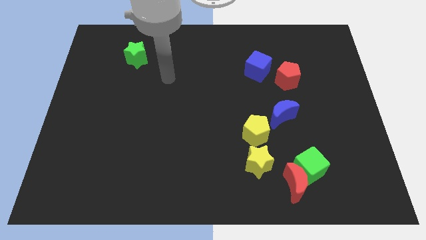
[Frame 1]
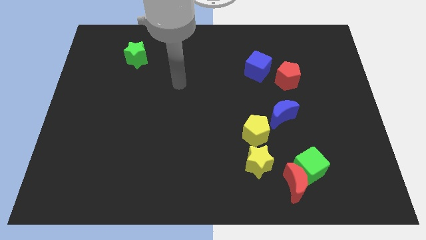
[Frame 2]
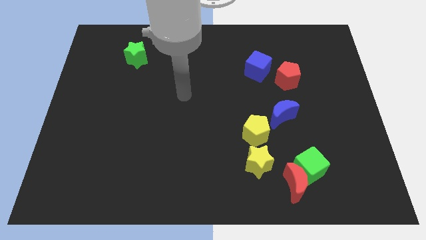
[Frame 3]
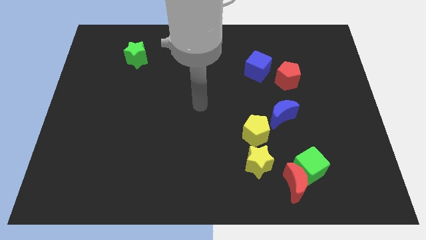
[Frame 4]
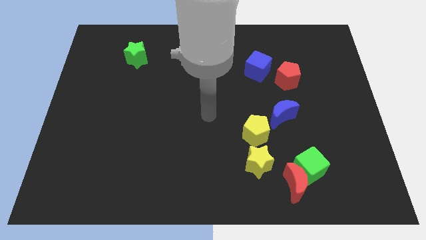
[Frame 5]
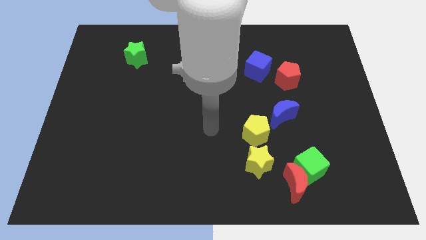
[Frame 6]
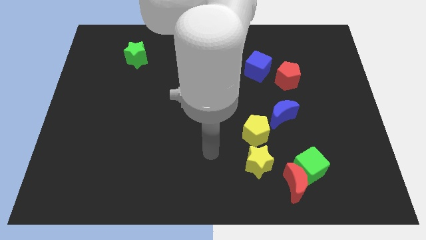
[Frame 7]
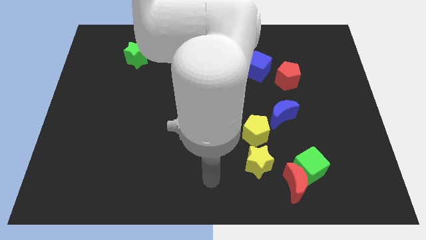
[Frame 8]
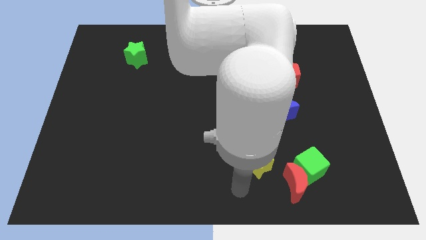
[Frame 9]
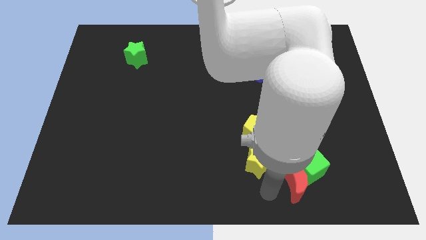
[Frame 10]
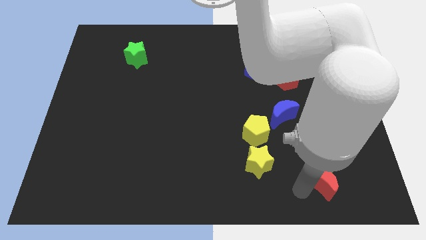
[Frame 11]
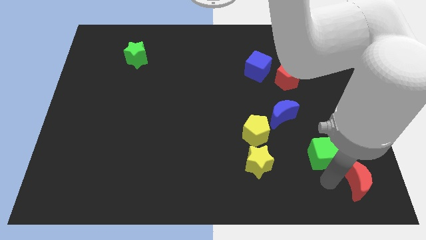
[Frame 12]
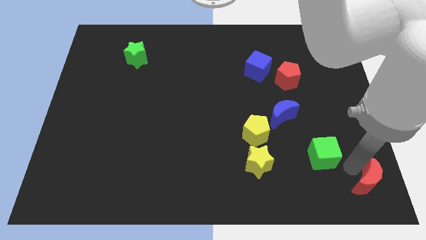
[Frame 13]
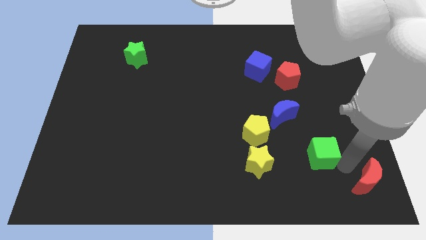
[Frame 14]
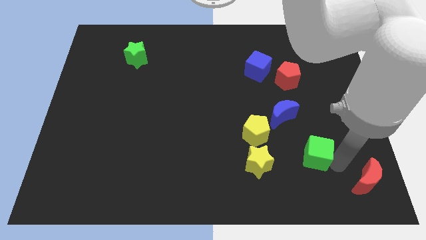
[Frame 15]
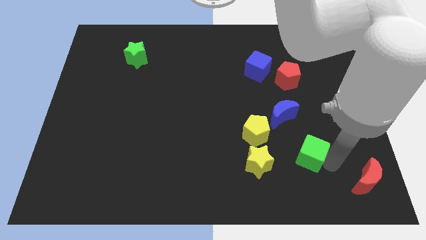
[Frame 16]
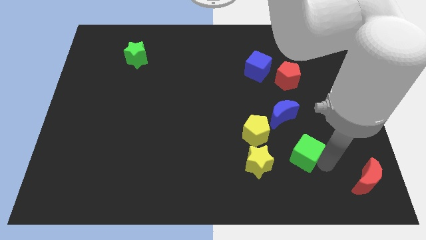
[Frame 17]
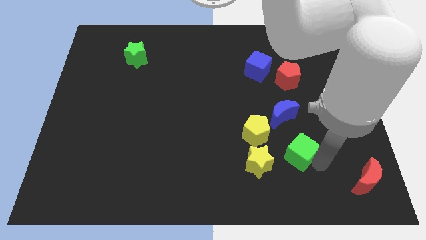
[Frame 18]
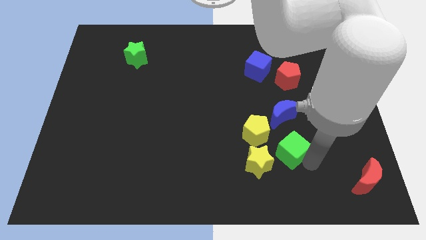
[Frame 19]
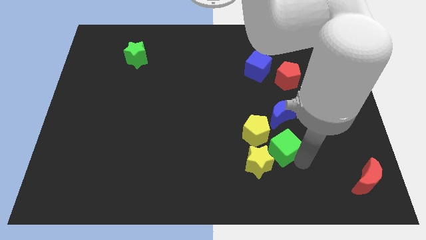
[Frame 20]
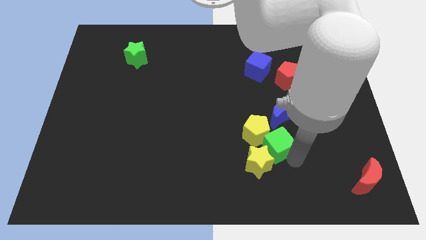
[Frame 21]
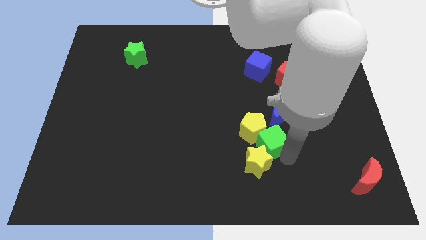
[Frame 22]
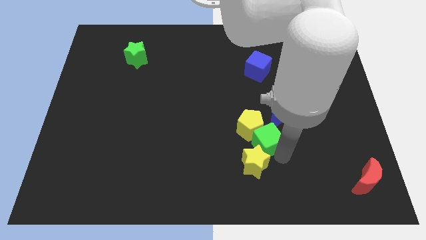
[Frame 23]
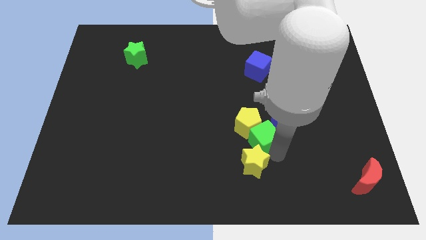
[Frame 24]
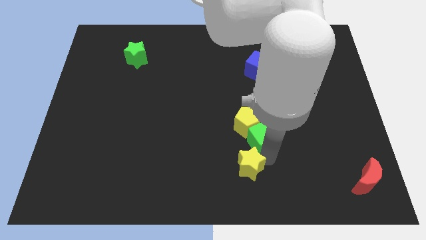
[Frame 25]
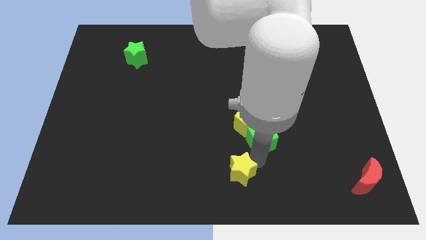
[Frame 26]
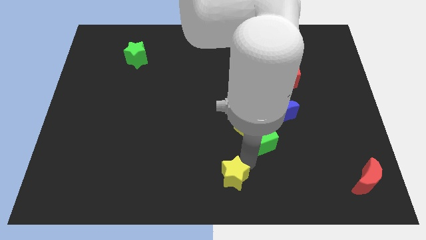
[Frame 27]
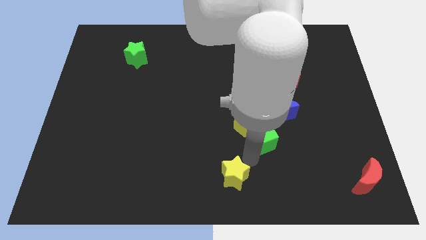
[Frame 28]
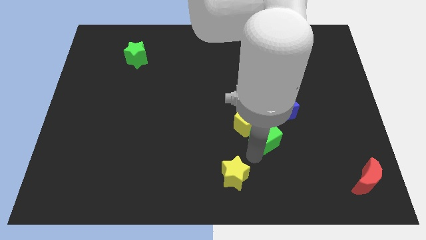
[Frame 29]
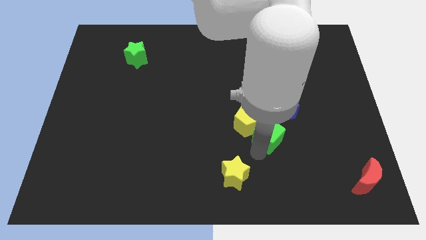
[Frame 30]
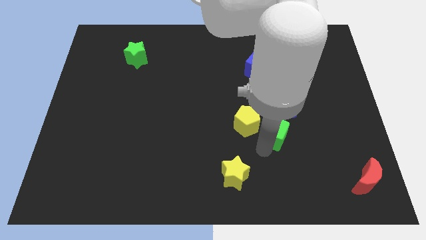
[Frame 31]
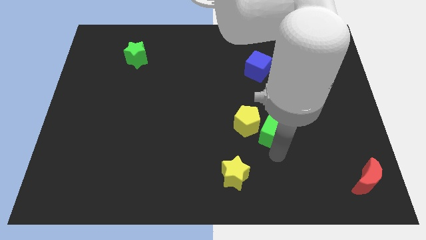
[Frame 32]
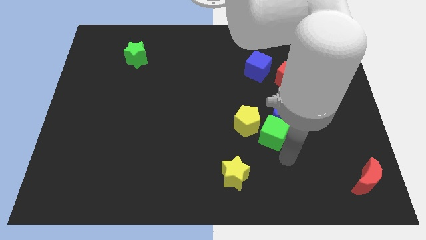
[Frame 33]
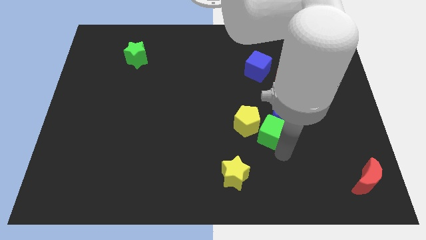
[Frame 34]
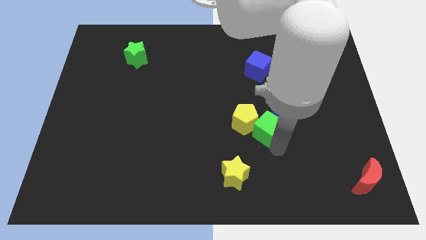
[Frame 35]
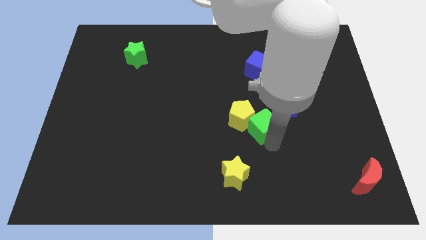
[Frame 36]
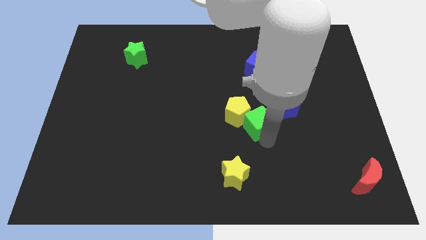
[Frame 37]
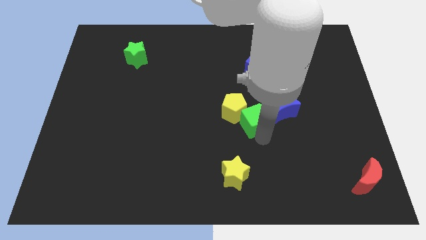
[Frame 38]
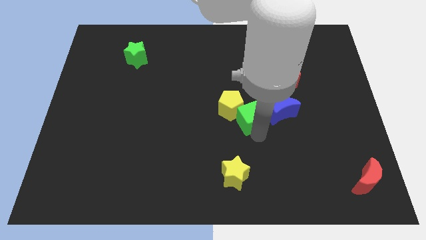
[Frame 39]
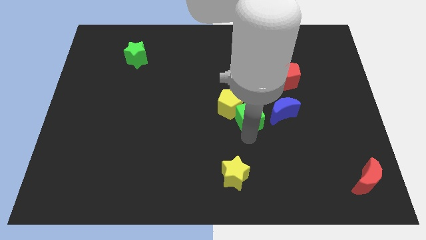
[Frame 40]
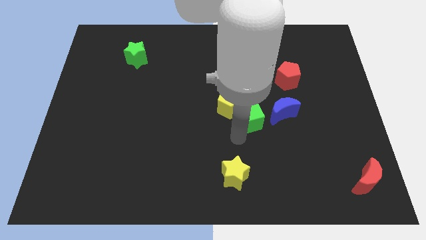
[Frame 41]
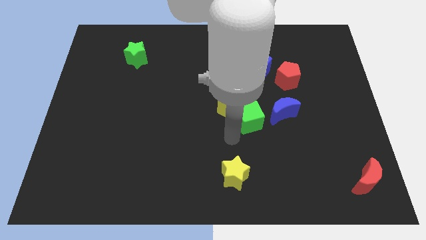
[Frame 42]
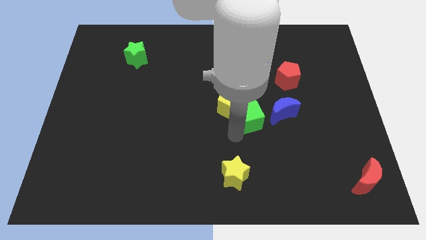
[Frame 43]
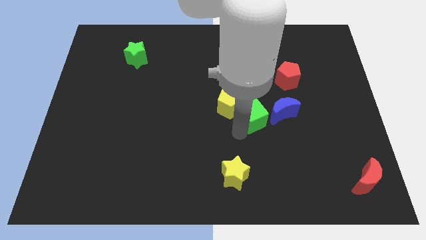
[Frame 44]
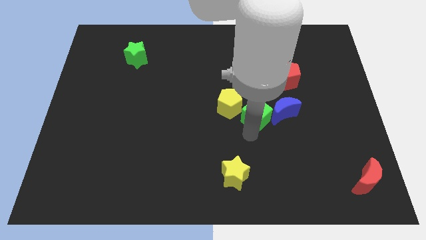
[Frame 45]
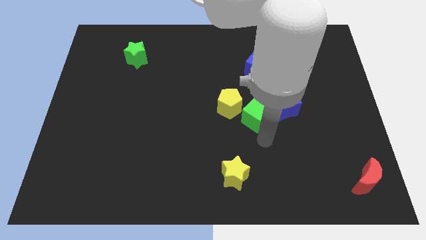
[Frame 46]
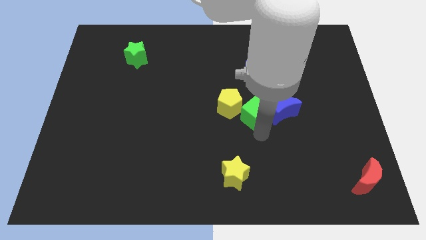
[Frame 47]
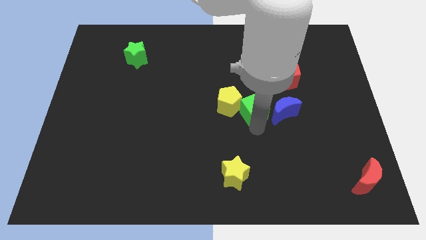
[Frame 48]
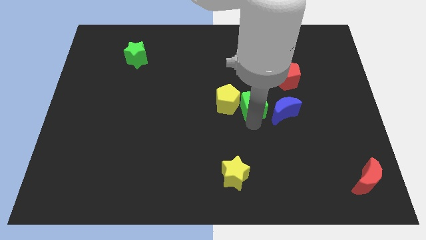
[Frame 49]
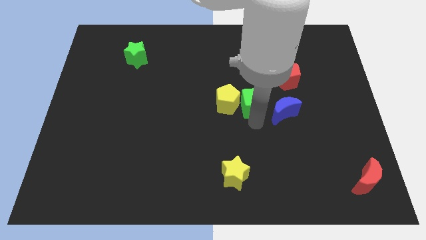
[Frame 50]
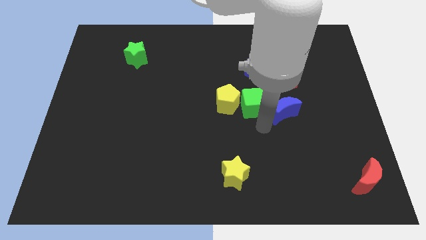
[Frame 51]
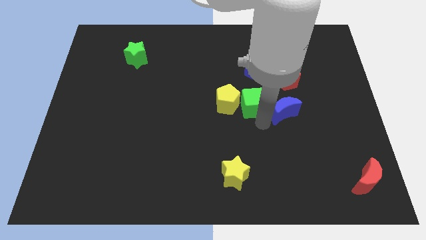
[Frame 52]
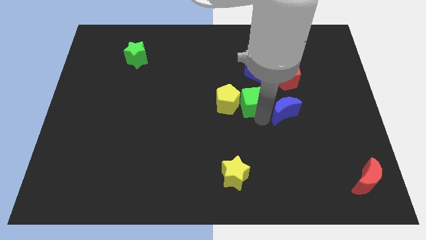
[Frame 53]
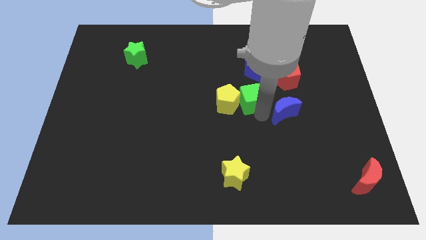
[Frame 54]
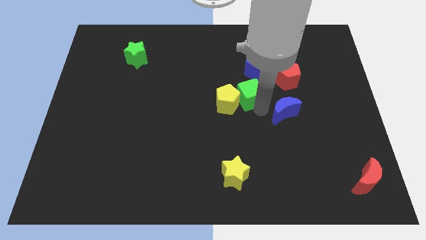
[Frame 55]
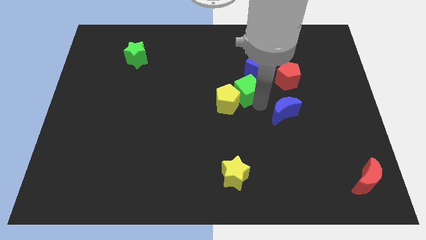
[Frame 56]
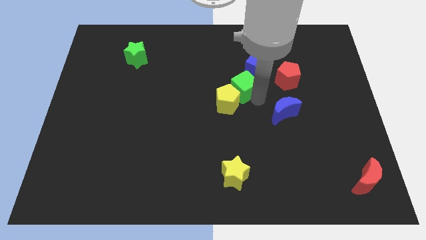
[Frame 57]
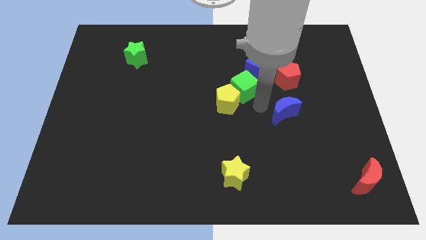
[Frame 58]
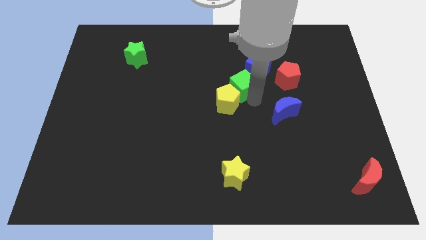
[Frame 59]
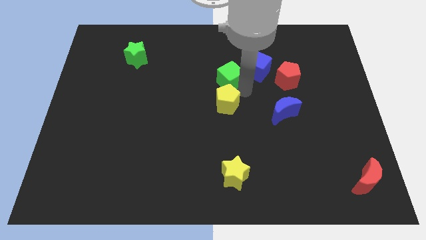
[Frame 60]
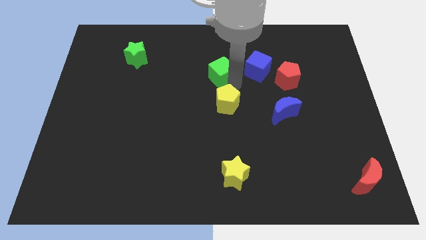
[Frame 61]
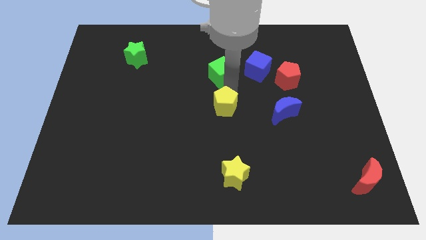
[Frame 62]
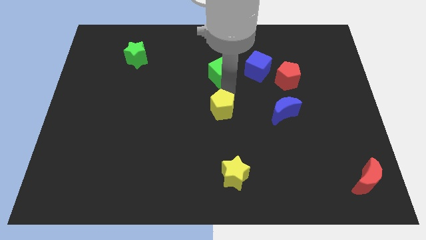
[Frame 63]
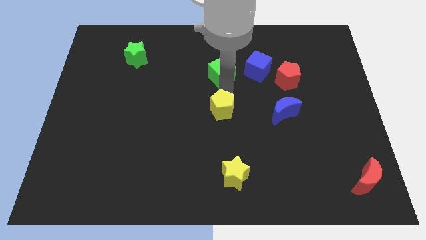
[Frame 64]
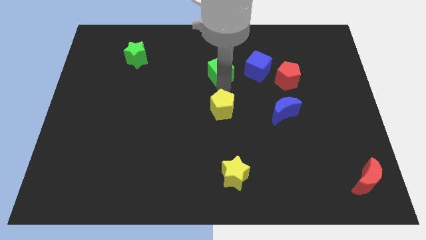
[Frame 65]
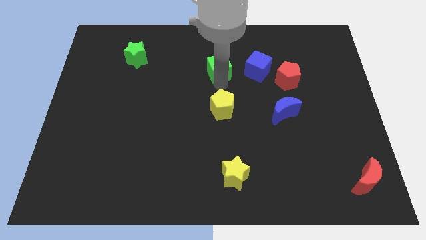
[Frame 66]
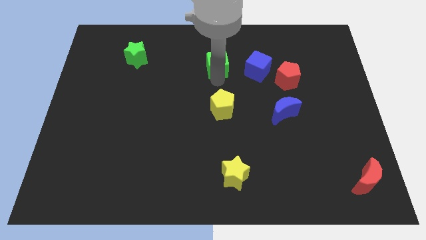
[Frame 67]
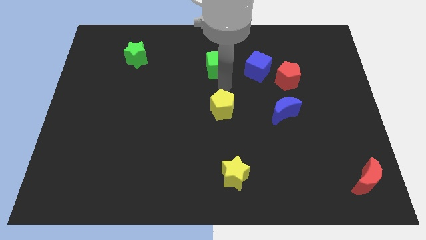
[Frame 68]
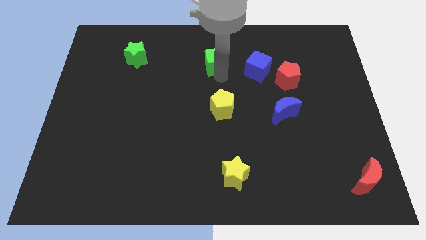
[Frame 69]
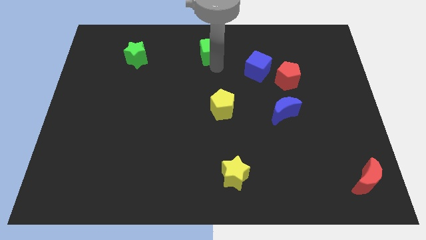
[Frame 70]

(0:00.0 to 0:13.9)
put the green cube to the top
